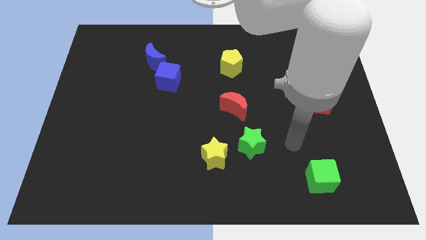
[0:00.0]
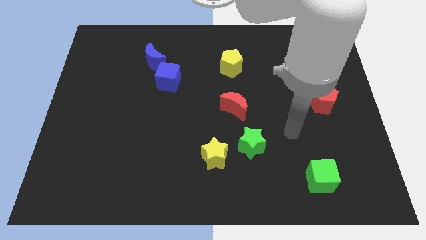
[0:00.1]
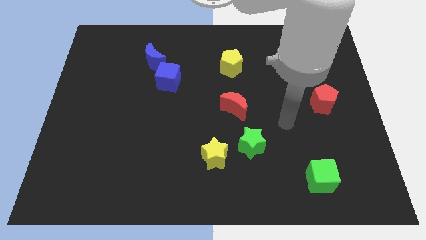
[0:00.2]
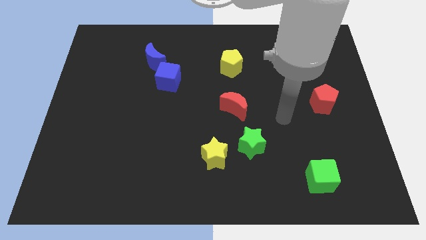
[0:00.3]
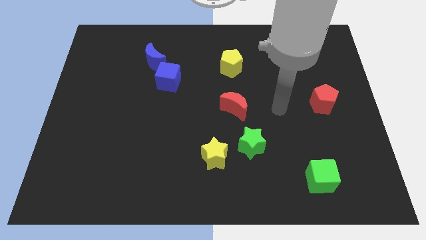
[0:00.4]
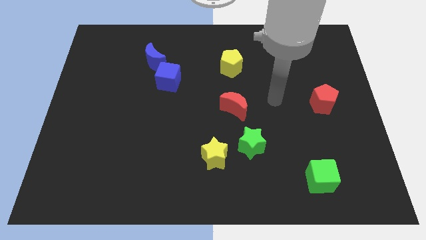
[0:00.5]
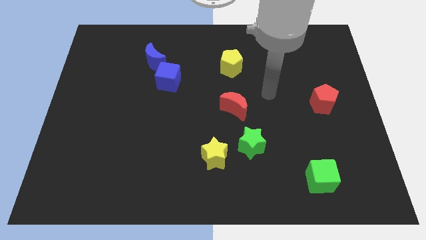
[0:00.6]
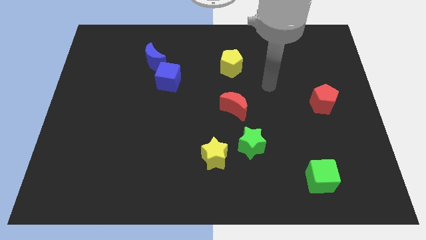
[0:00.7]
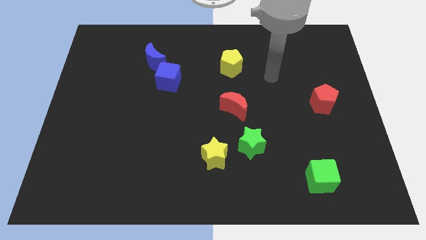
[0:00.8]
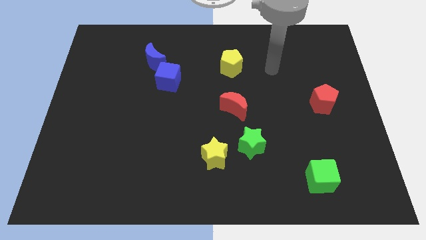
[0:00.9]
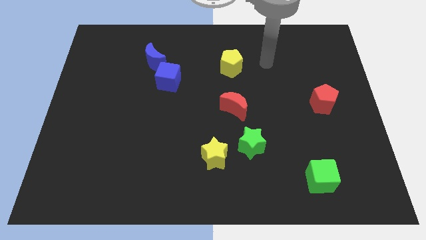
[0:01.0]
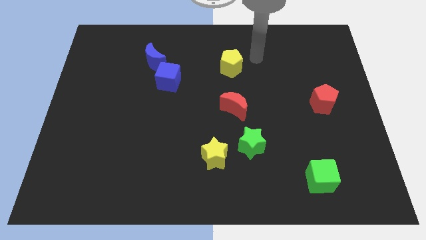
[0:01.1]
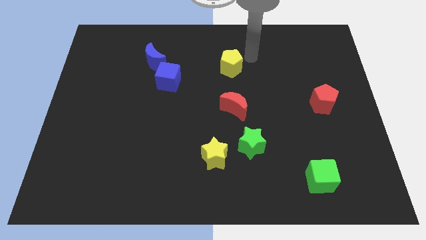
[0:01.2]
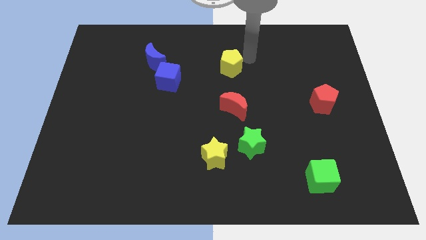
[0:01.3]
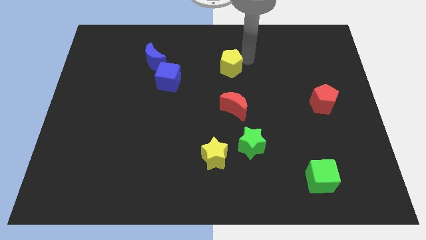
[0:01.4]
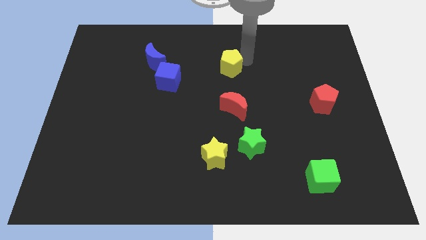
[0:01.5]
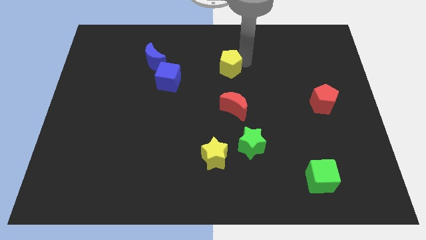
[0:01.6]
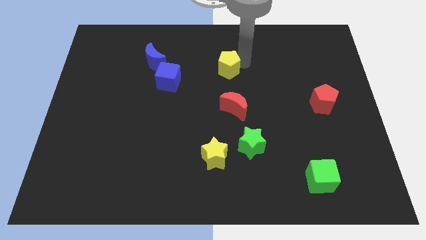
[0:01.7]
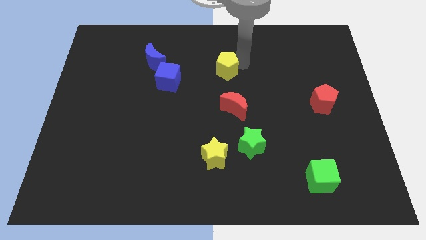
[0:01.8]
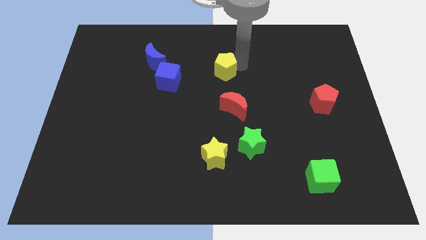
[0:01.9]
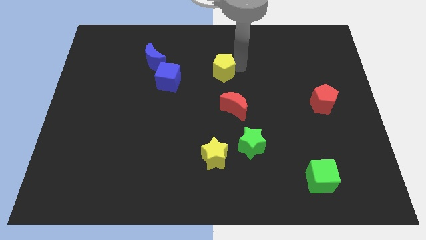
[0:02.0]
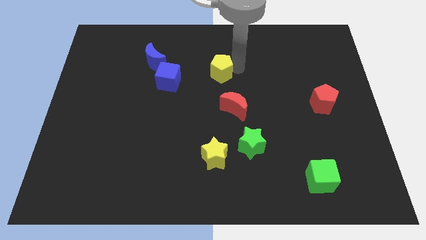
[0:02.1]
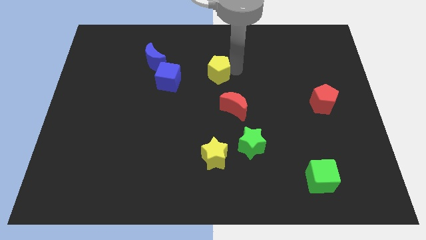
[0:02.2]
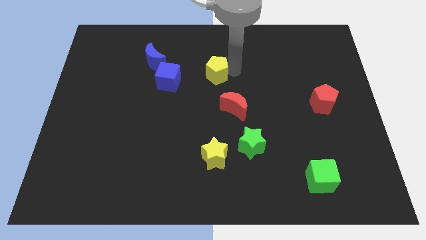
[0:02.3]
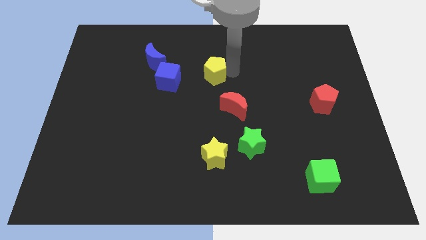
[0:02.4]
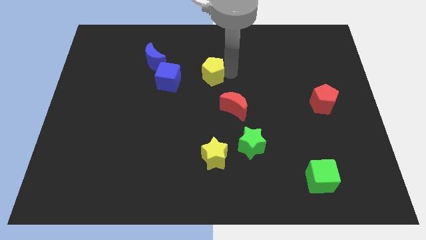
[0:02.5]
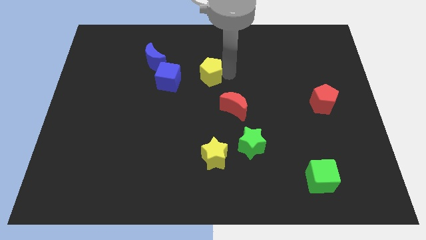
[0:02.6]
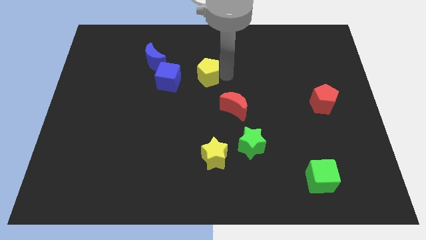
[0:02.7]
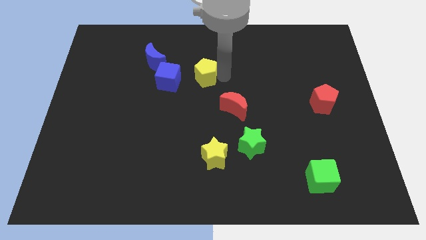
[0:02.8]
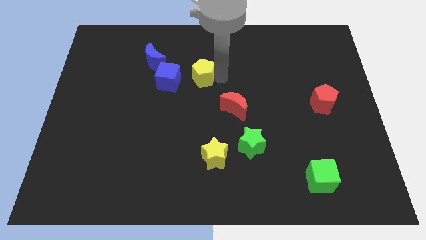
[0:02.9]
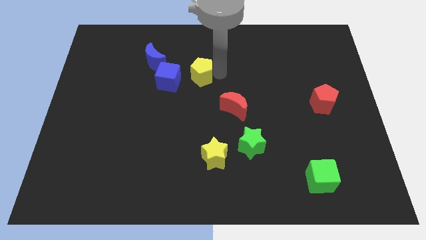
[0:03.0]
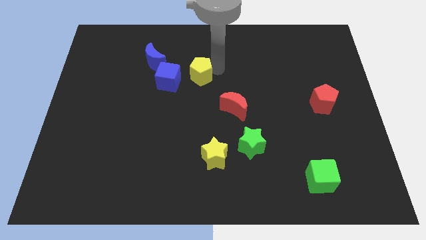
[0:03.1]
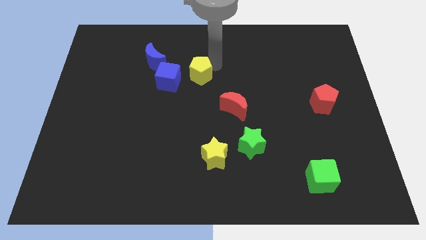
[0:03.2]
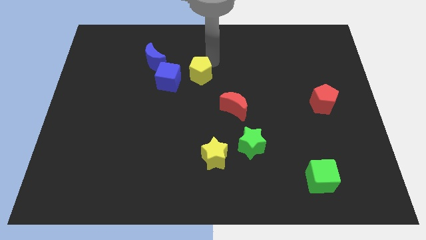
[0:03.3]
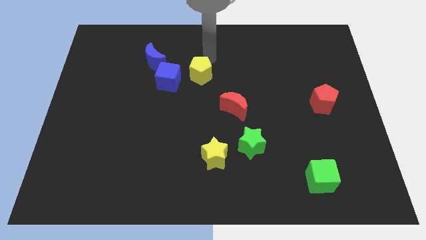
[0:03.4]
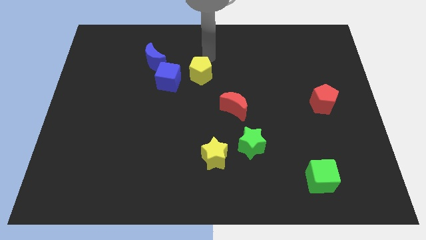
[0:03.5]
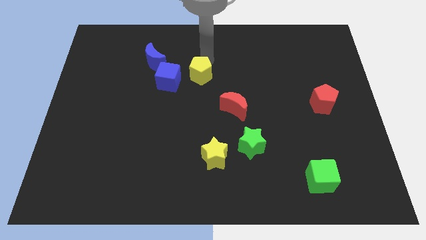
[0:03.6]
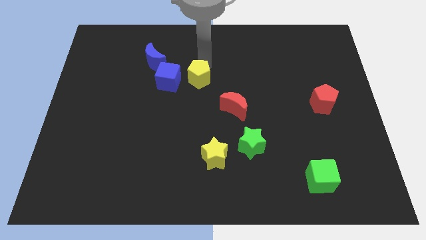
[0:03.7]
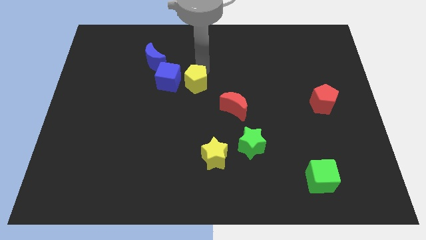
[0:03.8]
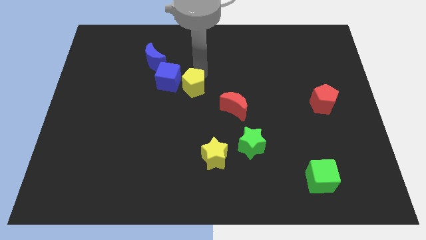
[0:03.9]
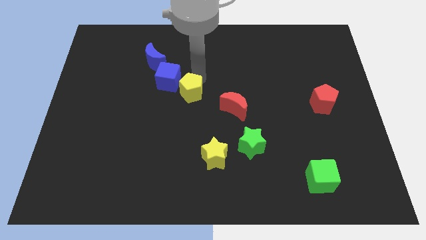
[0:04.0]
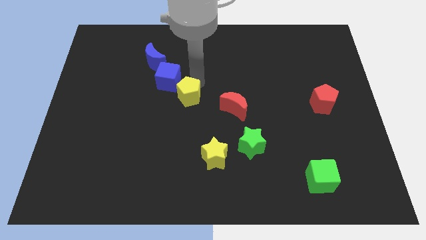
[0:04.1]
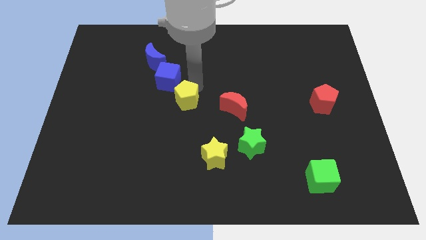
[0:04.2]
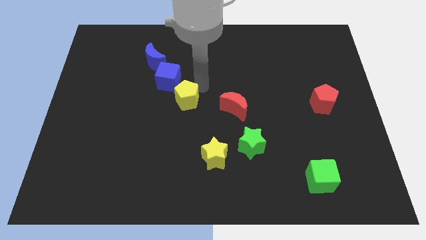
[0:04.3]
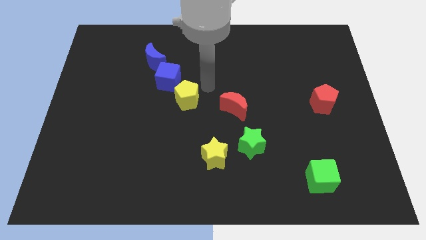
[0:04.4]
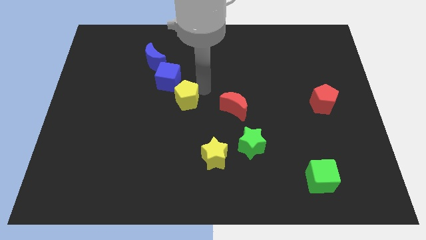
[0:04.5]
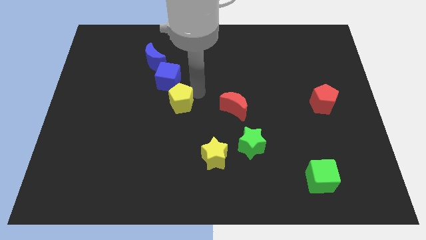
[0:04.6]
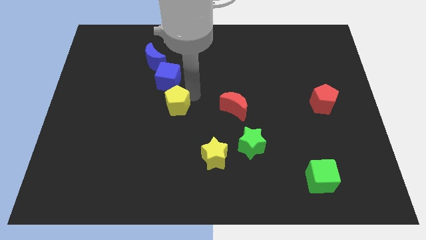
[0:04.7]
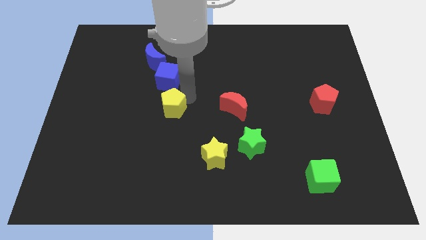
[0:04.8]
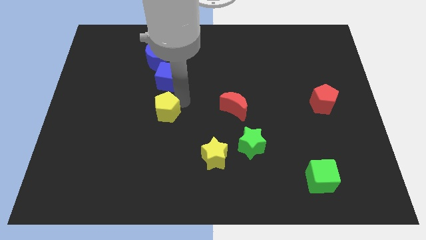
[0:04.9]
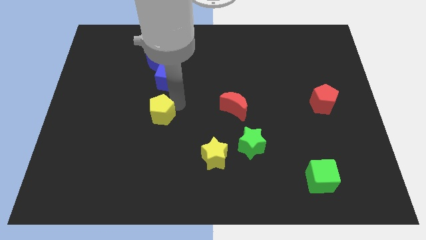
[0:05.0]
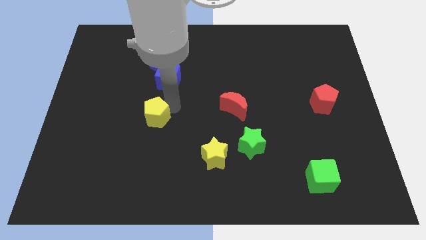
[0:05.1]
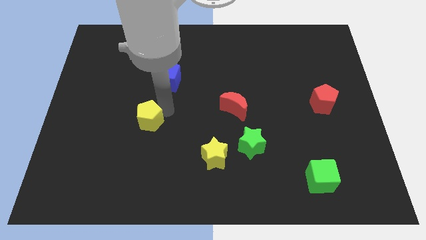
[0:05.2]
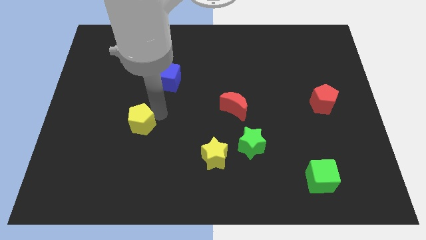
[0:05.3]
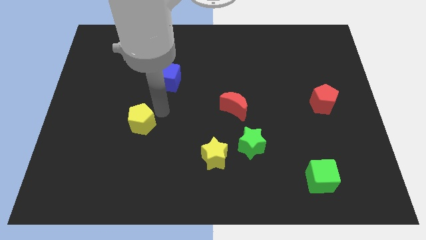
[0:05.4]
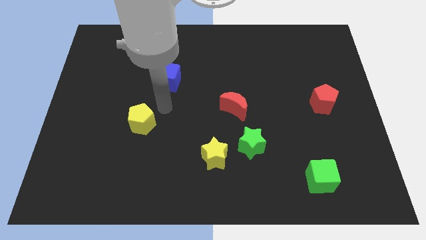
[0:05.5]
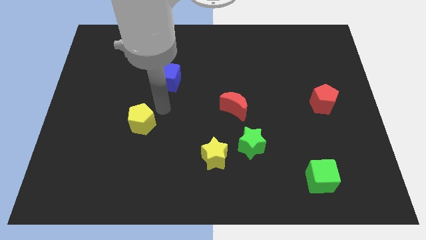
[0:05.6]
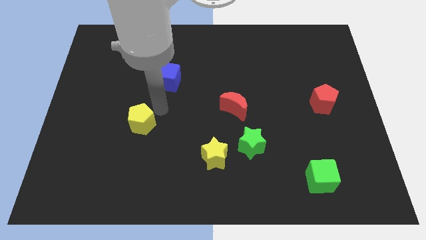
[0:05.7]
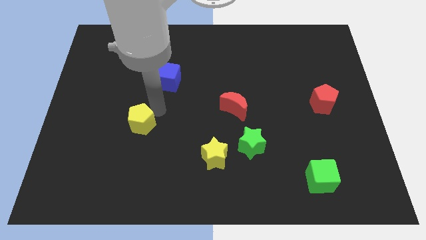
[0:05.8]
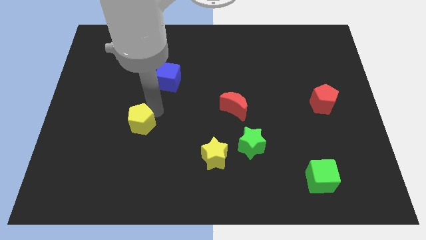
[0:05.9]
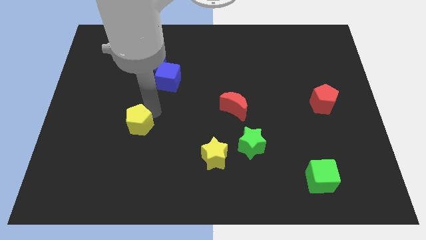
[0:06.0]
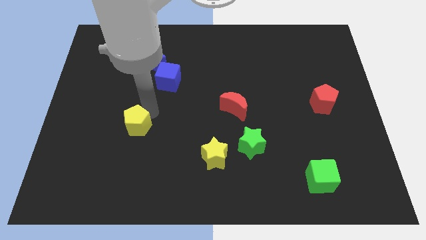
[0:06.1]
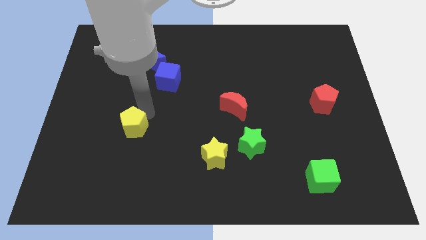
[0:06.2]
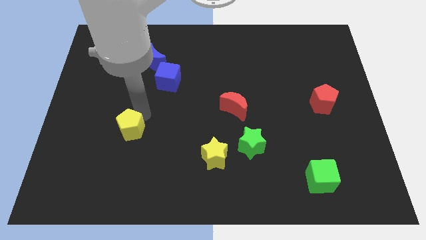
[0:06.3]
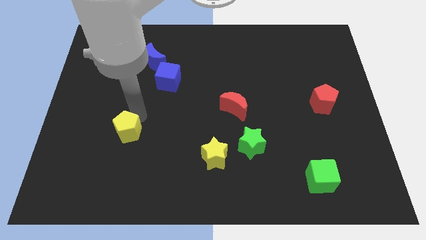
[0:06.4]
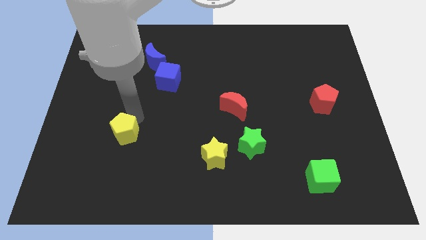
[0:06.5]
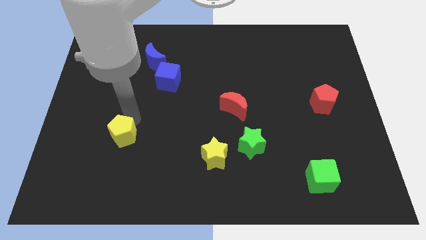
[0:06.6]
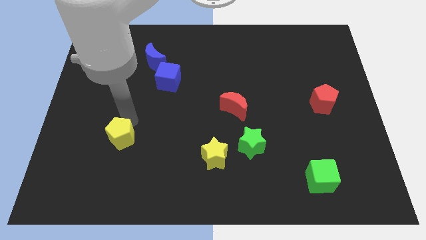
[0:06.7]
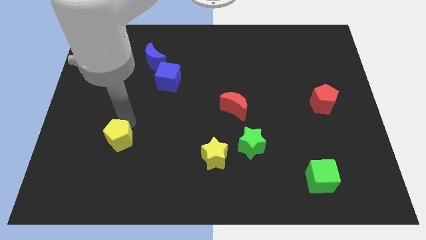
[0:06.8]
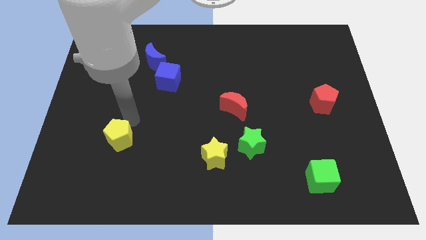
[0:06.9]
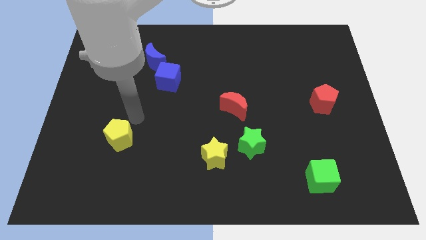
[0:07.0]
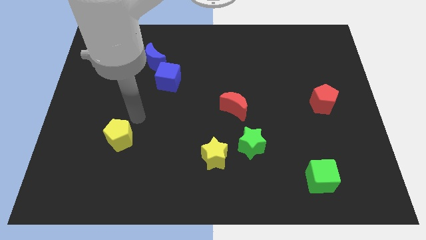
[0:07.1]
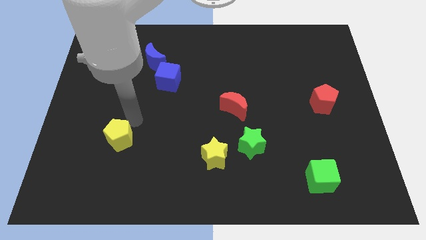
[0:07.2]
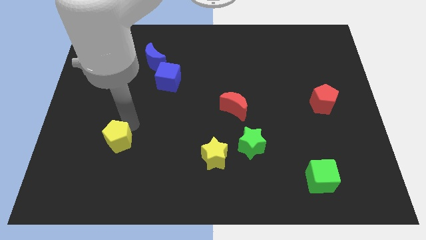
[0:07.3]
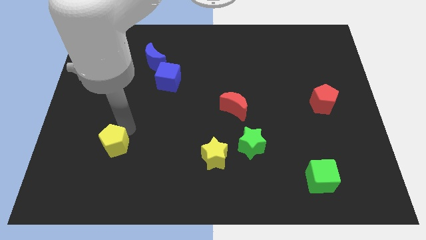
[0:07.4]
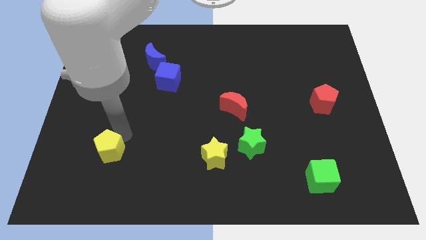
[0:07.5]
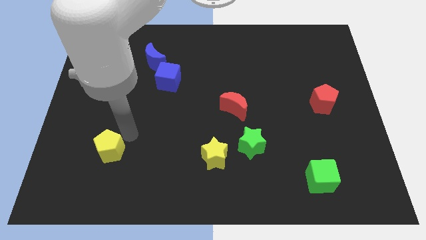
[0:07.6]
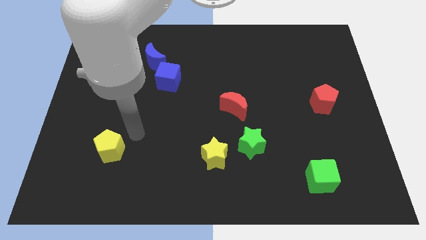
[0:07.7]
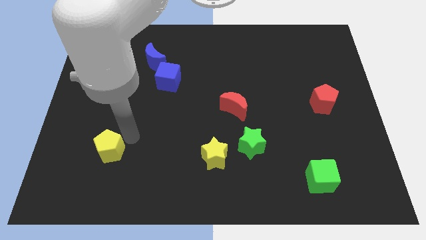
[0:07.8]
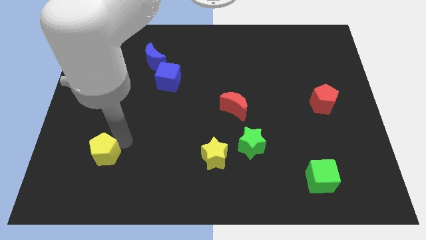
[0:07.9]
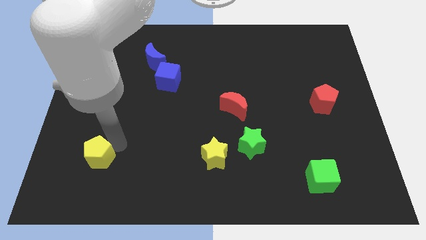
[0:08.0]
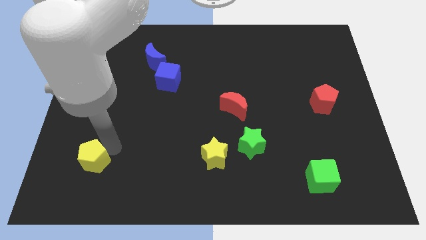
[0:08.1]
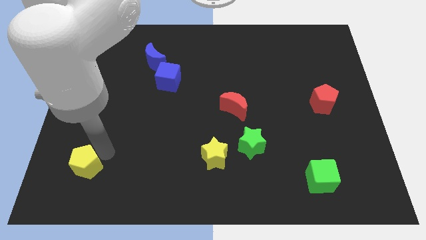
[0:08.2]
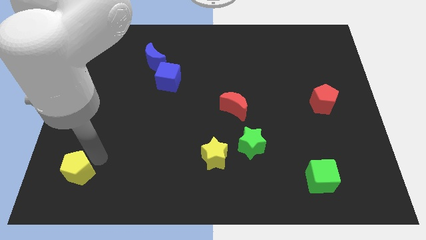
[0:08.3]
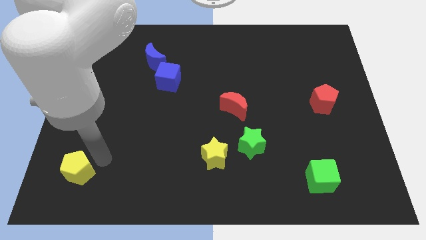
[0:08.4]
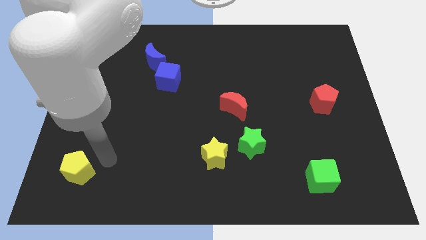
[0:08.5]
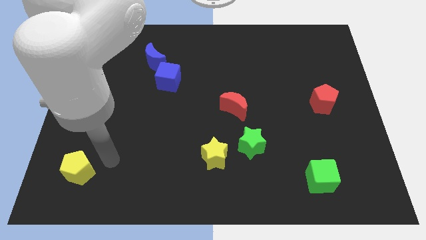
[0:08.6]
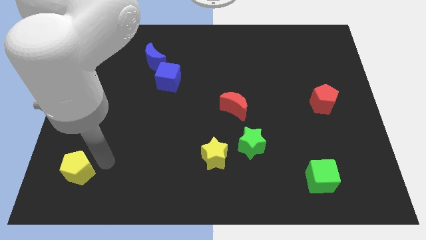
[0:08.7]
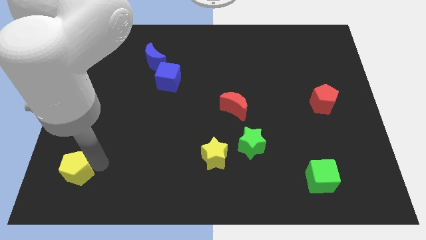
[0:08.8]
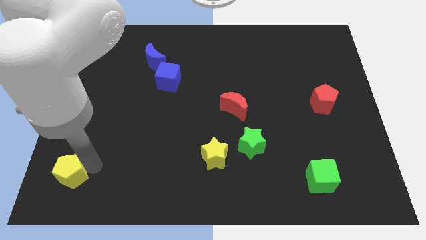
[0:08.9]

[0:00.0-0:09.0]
slide the yellow pentagon to the bottom left
